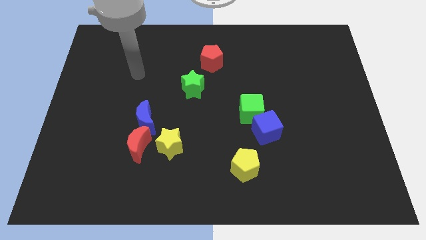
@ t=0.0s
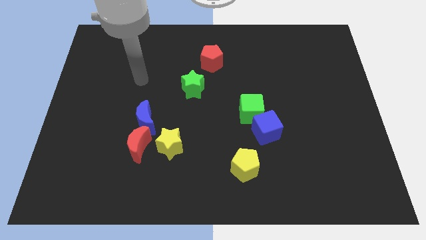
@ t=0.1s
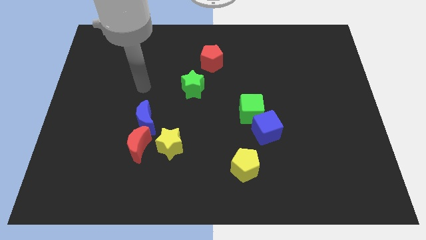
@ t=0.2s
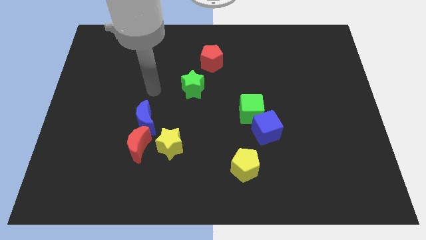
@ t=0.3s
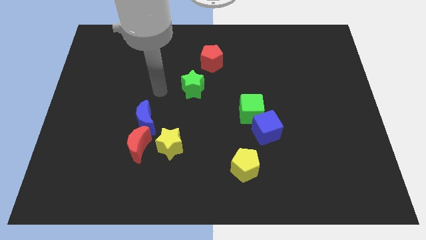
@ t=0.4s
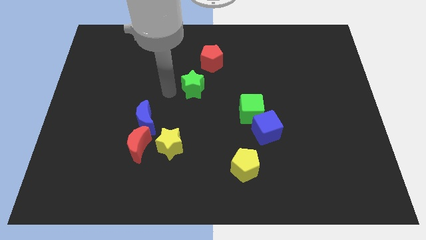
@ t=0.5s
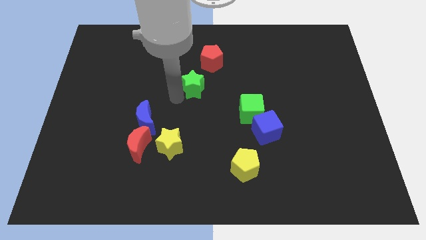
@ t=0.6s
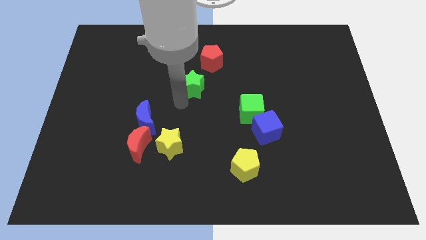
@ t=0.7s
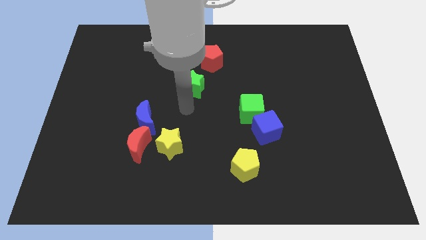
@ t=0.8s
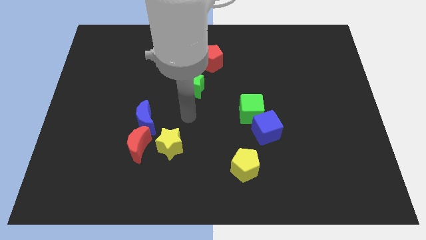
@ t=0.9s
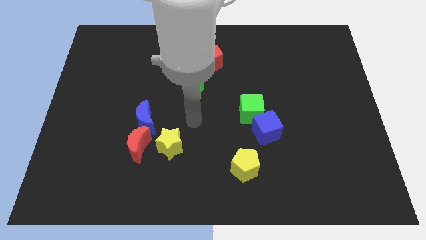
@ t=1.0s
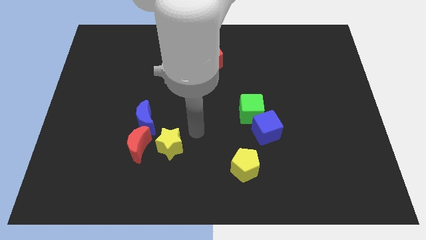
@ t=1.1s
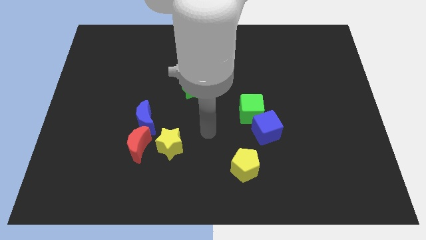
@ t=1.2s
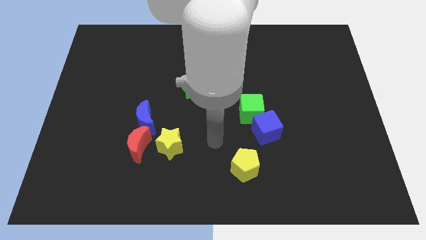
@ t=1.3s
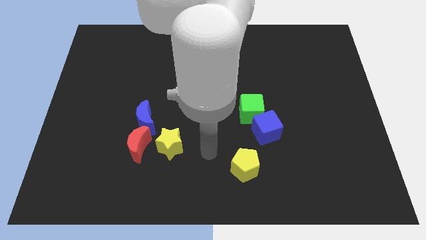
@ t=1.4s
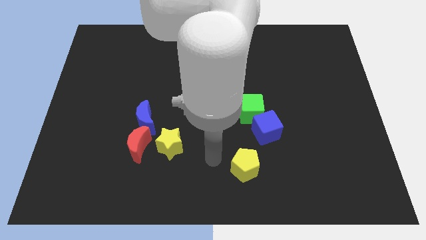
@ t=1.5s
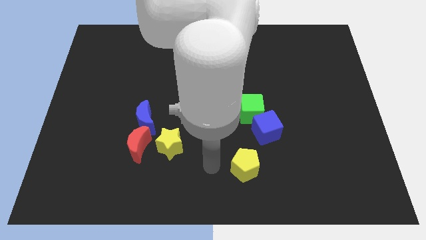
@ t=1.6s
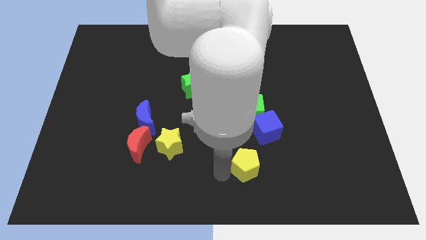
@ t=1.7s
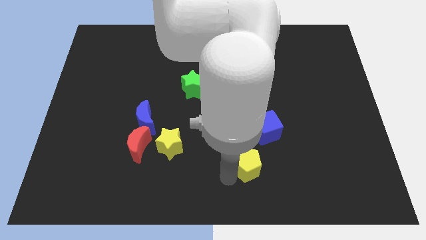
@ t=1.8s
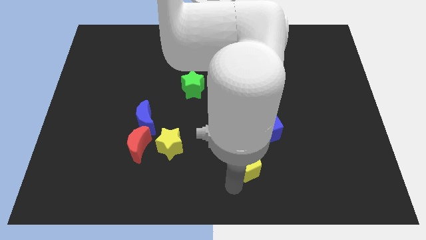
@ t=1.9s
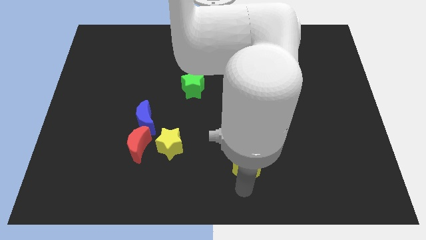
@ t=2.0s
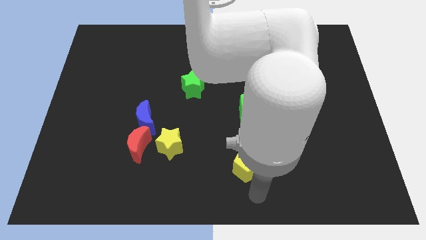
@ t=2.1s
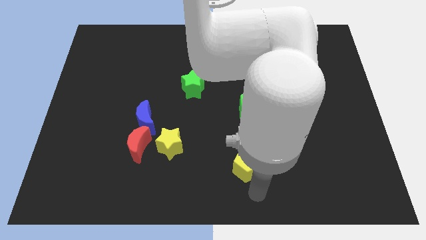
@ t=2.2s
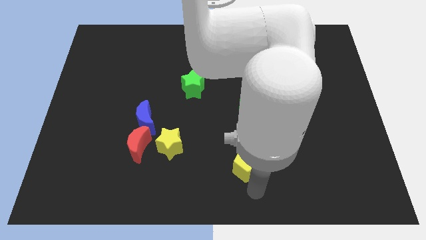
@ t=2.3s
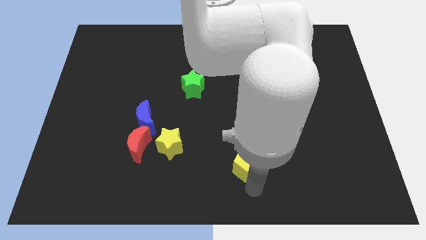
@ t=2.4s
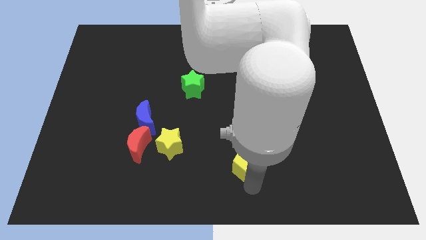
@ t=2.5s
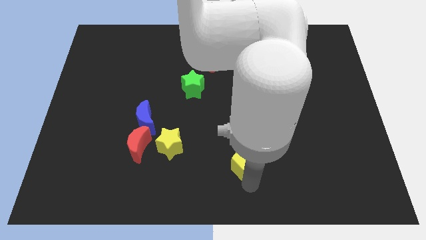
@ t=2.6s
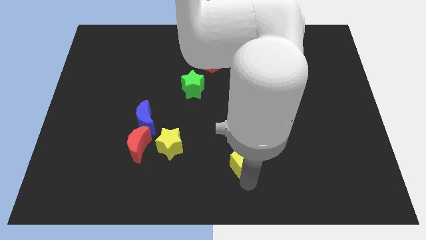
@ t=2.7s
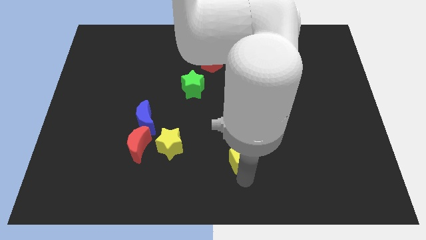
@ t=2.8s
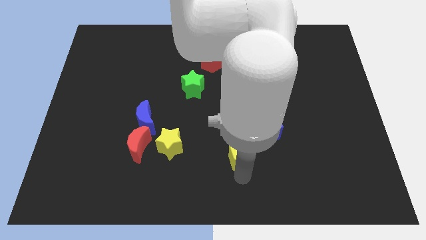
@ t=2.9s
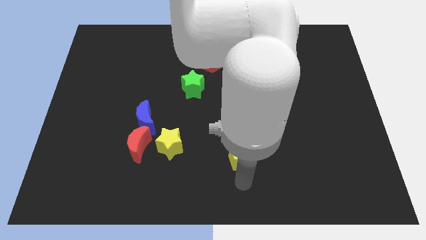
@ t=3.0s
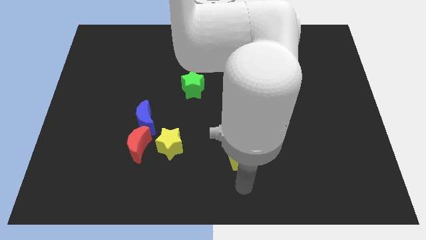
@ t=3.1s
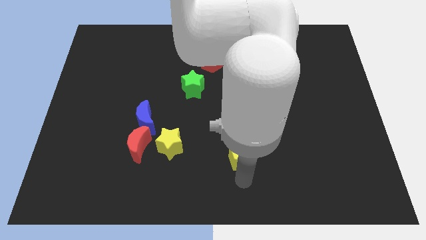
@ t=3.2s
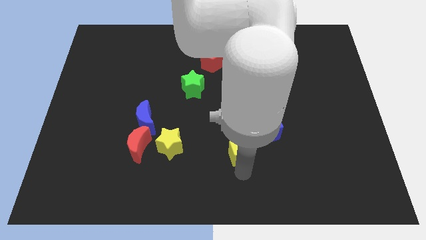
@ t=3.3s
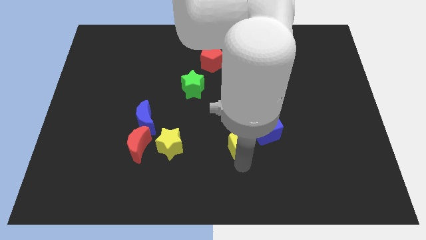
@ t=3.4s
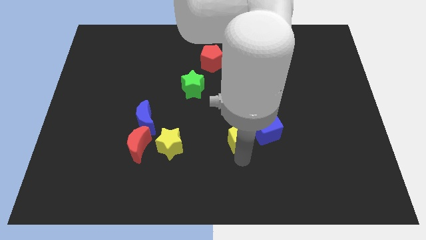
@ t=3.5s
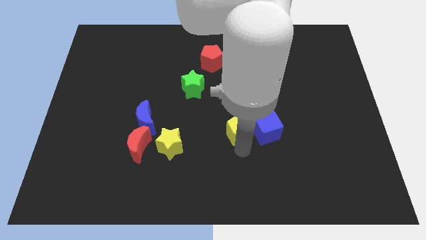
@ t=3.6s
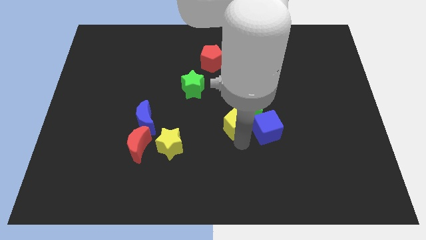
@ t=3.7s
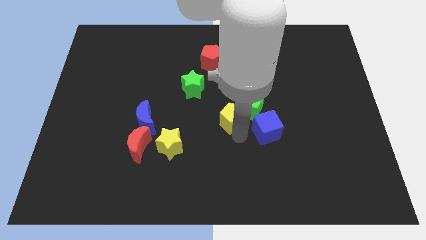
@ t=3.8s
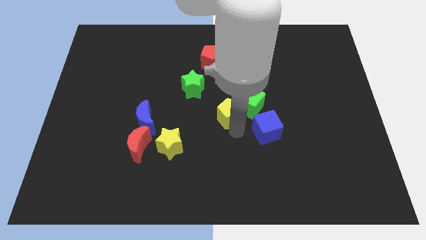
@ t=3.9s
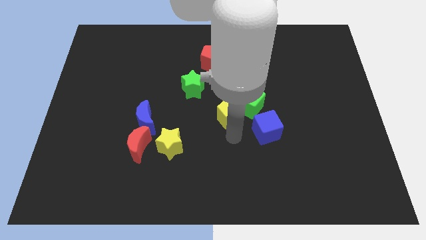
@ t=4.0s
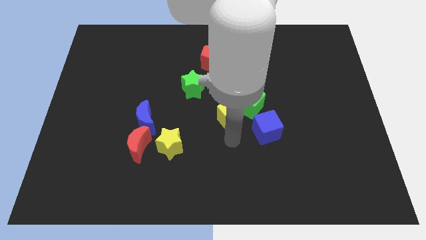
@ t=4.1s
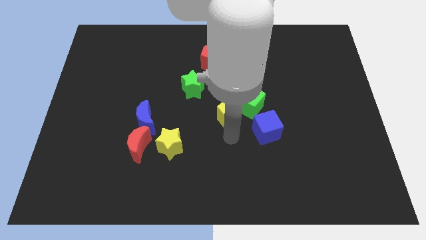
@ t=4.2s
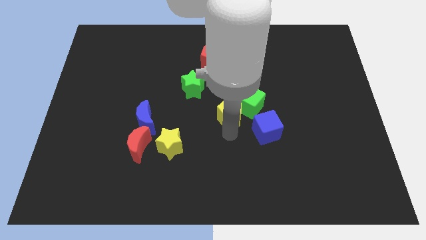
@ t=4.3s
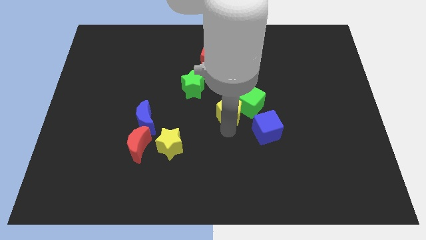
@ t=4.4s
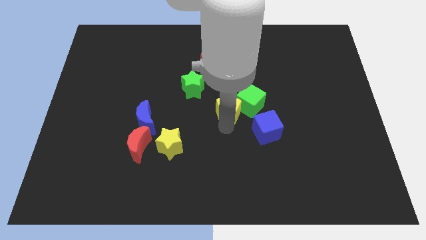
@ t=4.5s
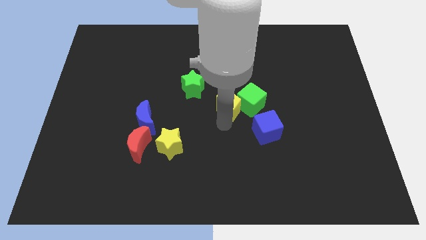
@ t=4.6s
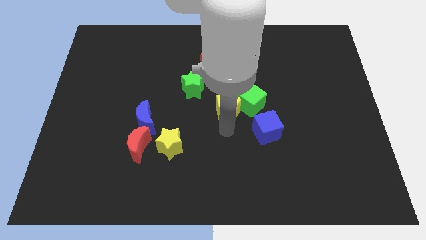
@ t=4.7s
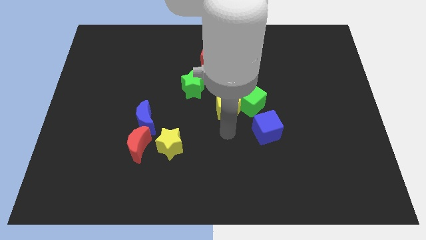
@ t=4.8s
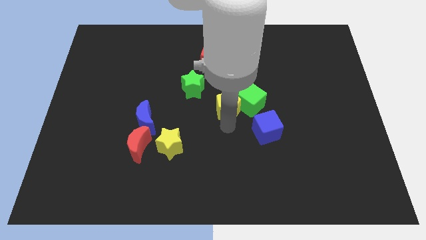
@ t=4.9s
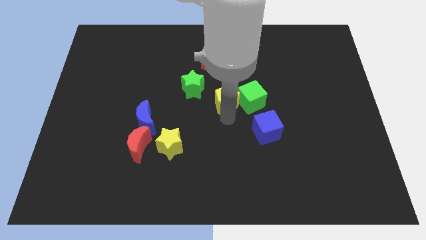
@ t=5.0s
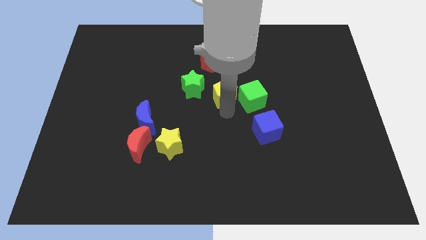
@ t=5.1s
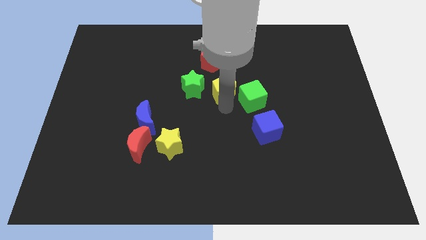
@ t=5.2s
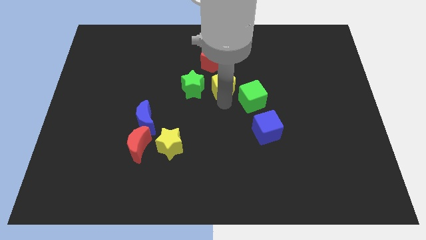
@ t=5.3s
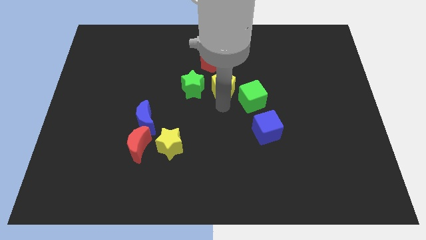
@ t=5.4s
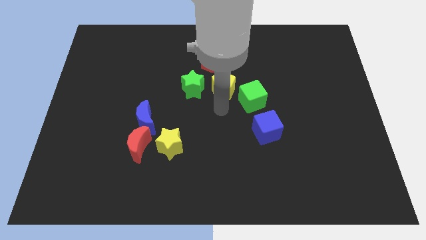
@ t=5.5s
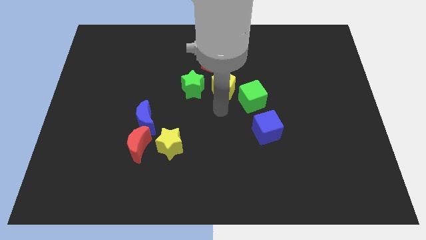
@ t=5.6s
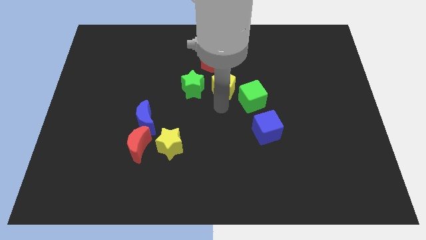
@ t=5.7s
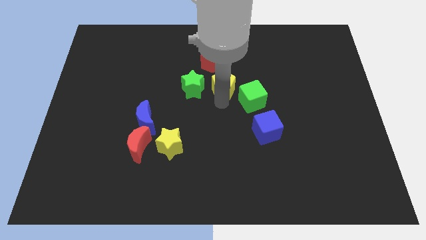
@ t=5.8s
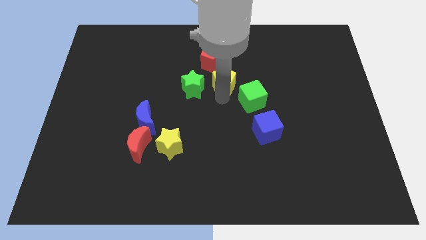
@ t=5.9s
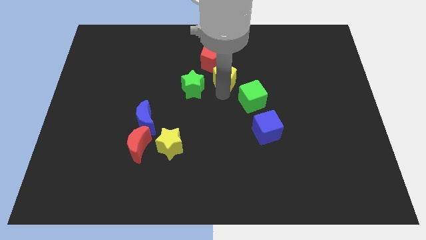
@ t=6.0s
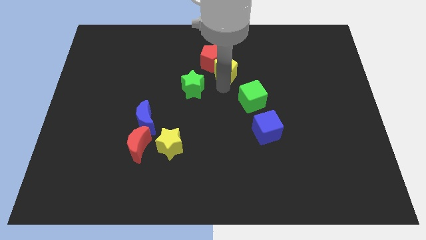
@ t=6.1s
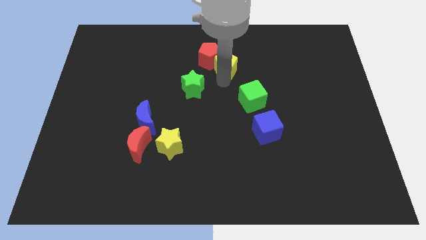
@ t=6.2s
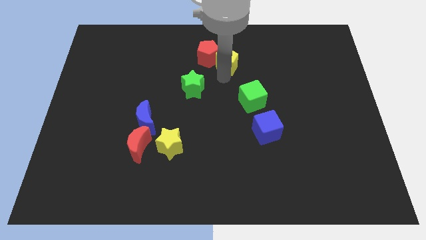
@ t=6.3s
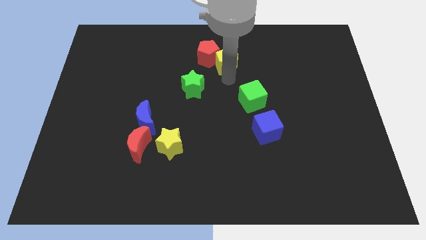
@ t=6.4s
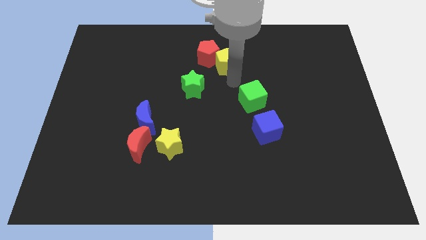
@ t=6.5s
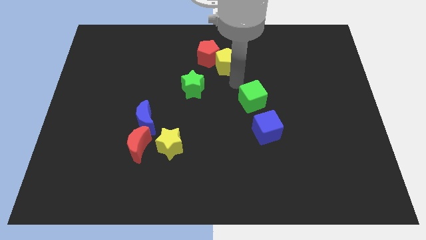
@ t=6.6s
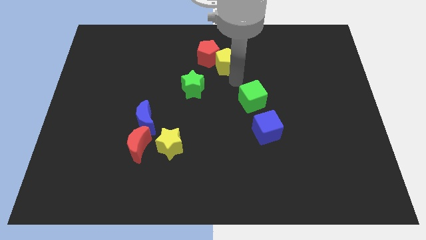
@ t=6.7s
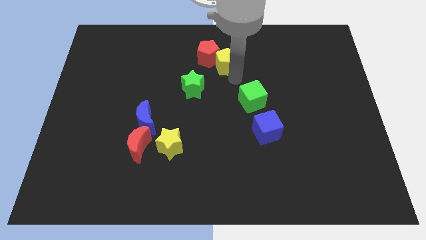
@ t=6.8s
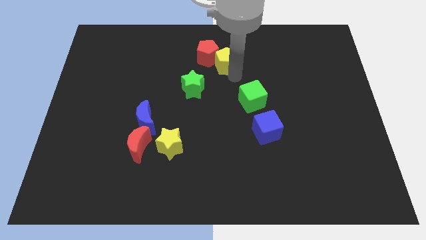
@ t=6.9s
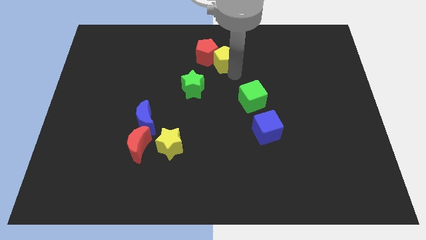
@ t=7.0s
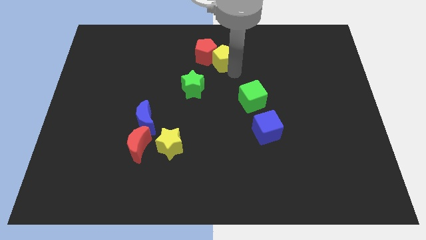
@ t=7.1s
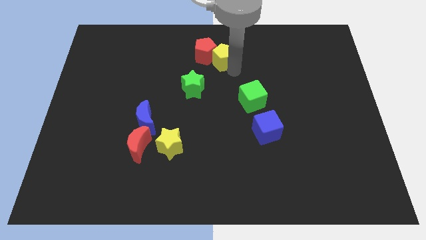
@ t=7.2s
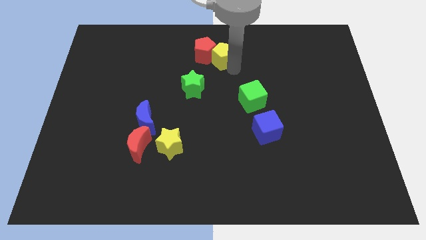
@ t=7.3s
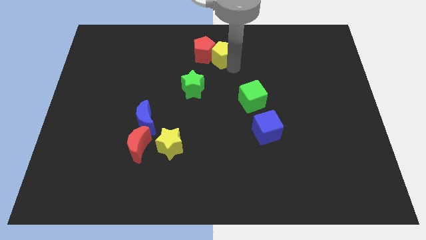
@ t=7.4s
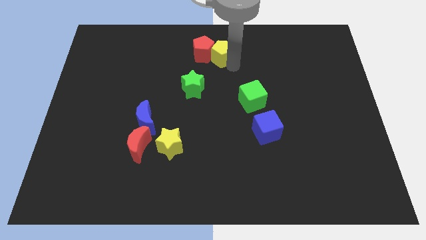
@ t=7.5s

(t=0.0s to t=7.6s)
put the yellow pentagon to the top
